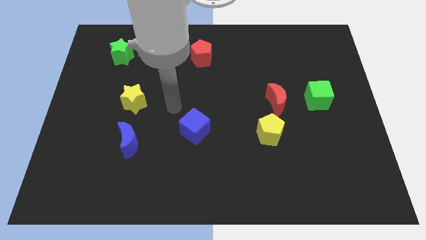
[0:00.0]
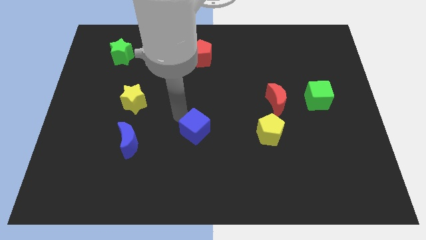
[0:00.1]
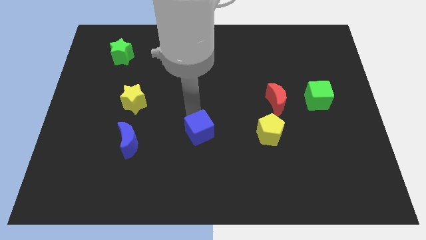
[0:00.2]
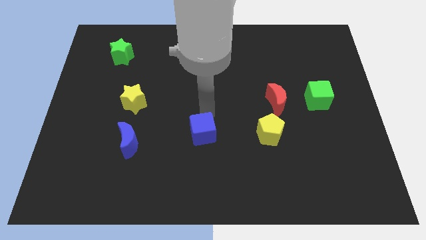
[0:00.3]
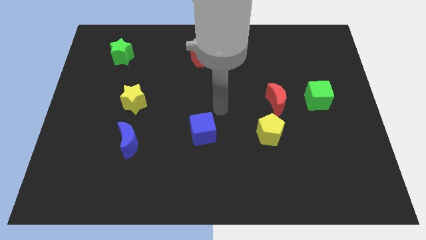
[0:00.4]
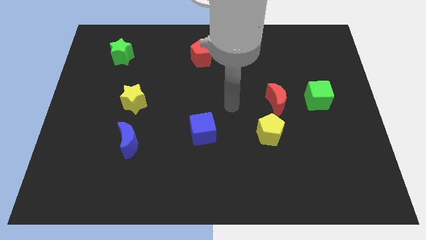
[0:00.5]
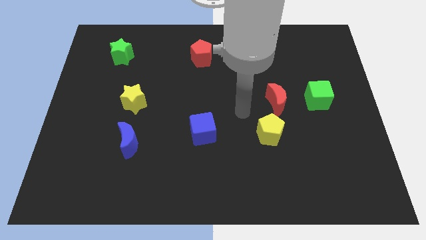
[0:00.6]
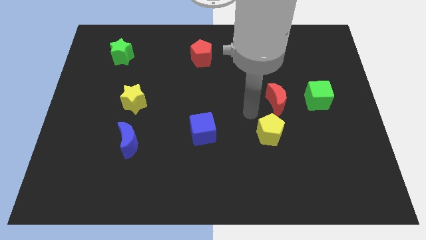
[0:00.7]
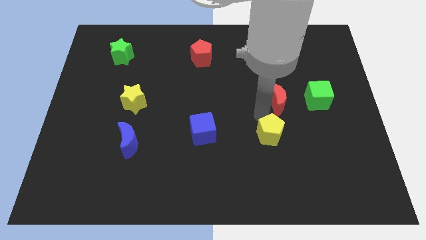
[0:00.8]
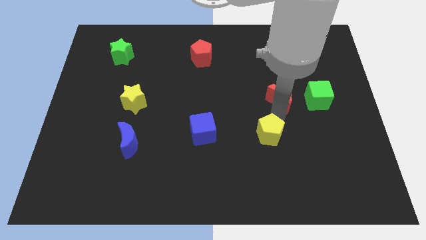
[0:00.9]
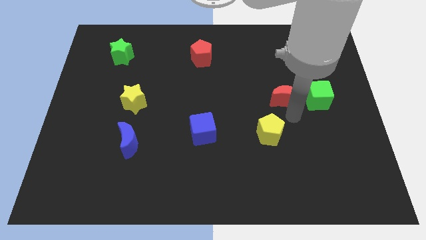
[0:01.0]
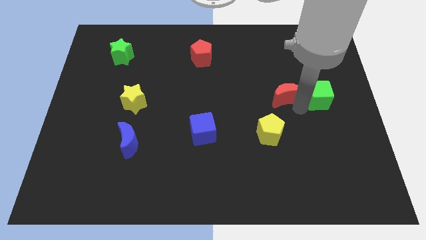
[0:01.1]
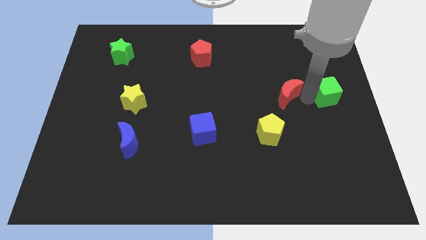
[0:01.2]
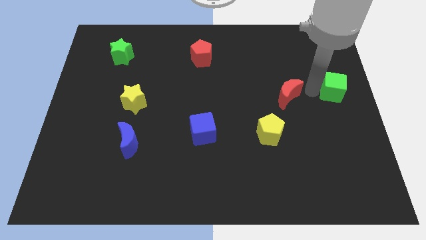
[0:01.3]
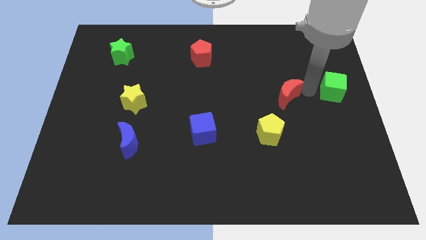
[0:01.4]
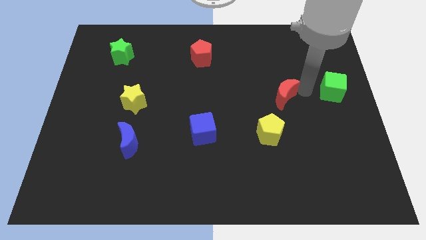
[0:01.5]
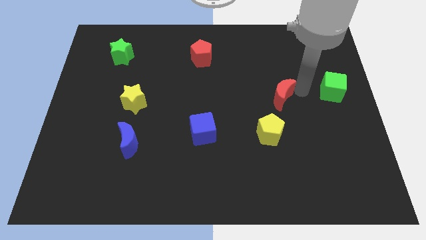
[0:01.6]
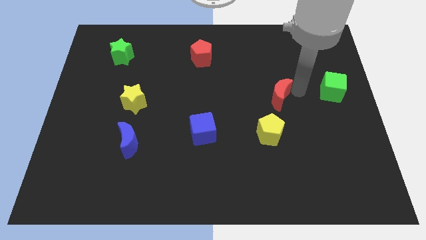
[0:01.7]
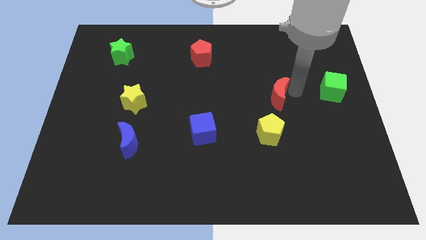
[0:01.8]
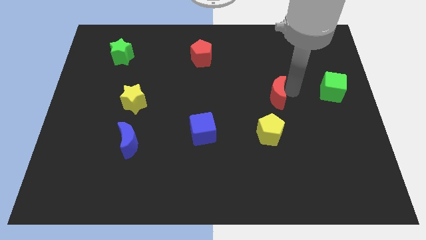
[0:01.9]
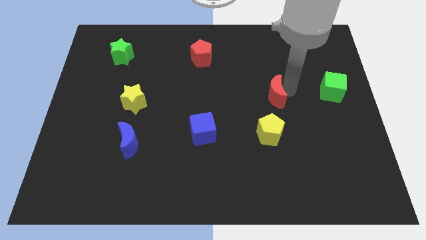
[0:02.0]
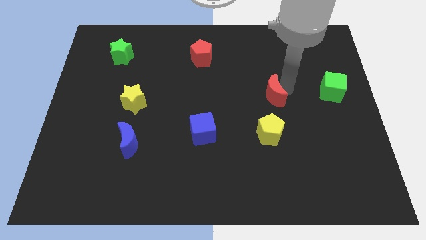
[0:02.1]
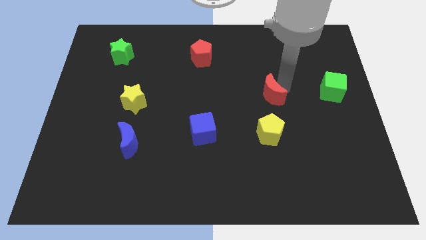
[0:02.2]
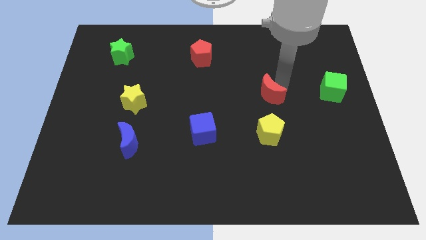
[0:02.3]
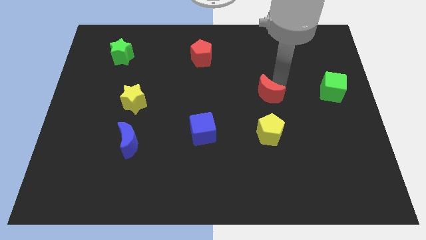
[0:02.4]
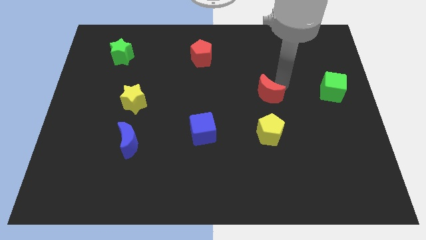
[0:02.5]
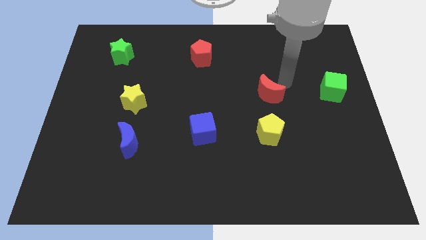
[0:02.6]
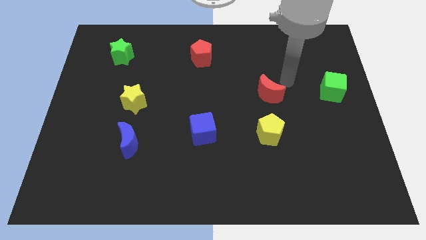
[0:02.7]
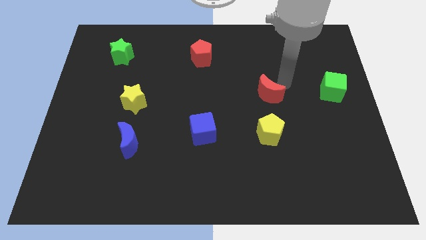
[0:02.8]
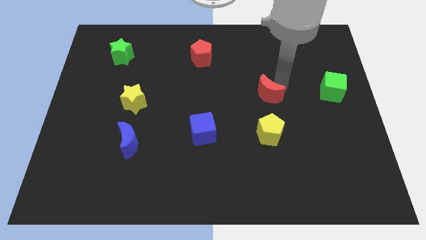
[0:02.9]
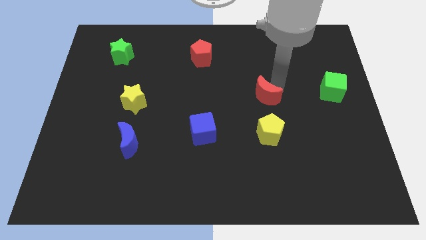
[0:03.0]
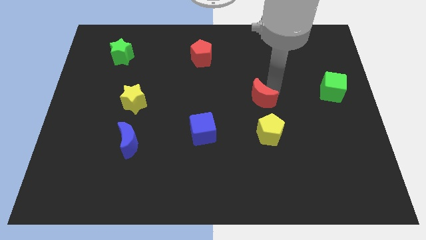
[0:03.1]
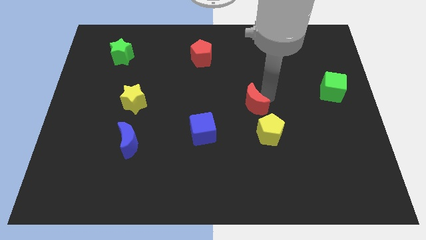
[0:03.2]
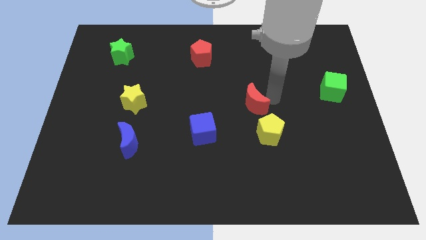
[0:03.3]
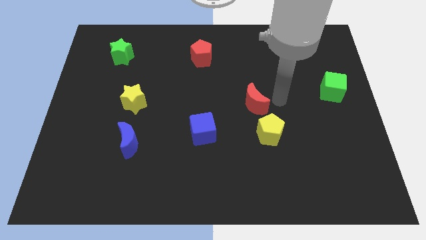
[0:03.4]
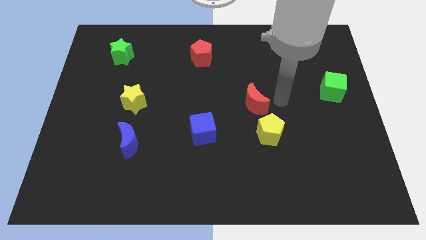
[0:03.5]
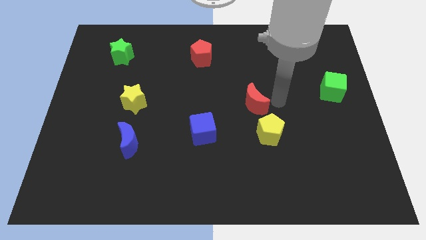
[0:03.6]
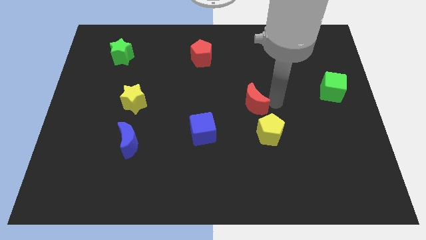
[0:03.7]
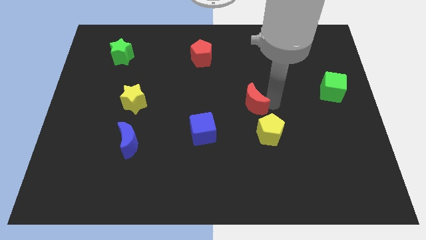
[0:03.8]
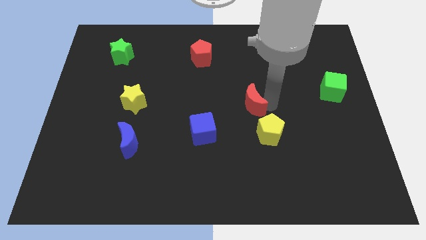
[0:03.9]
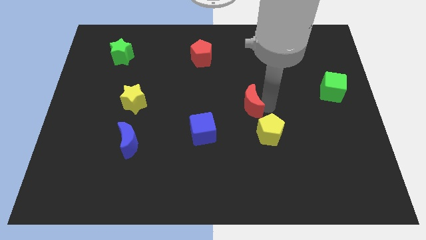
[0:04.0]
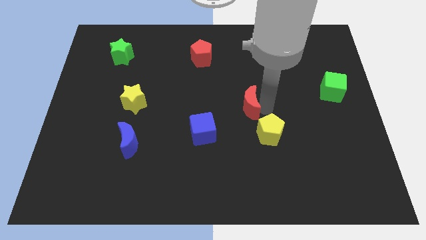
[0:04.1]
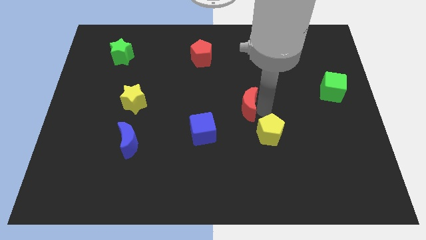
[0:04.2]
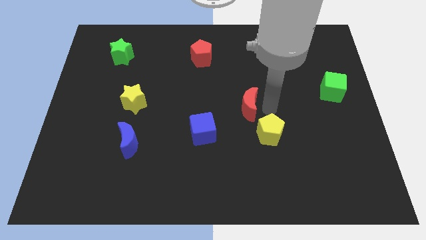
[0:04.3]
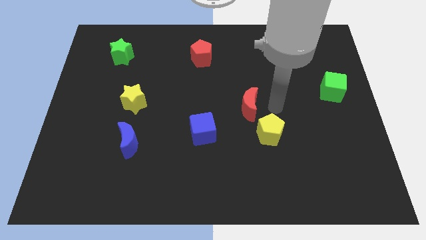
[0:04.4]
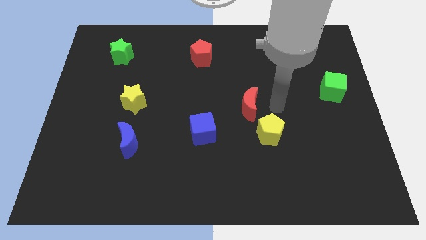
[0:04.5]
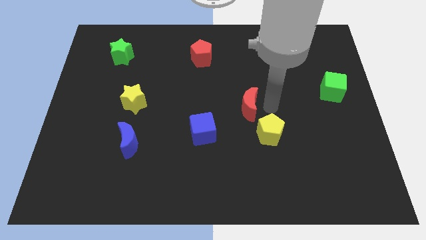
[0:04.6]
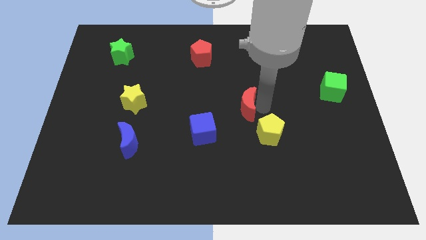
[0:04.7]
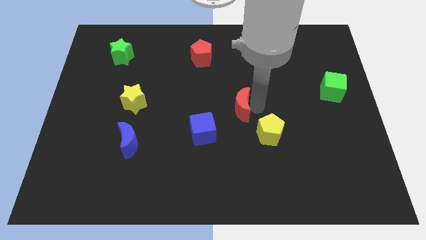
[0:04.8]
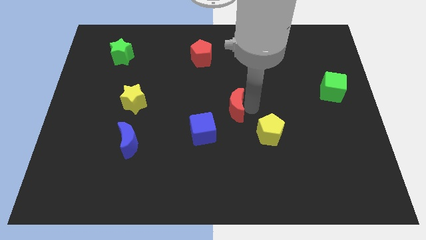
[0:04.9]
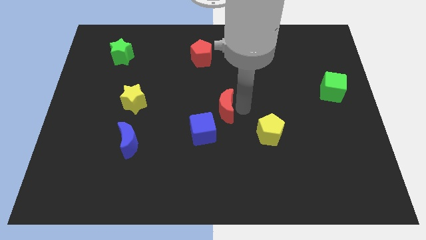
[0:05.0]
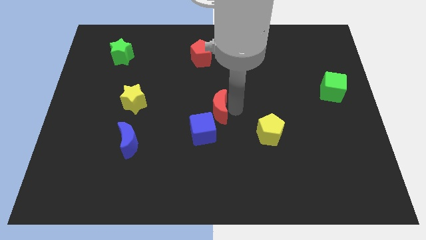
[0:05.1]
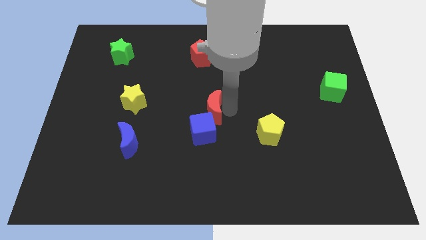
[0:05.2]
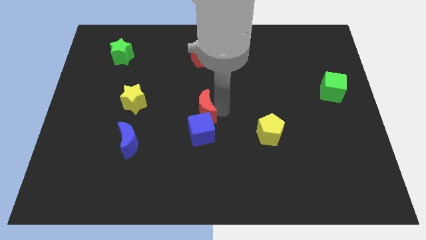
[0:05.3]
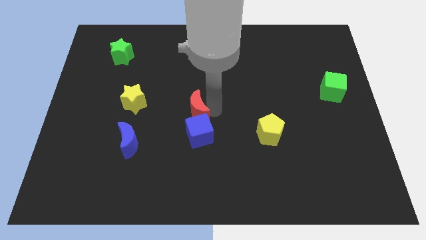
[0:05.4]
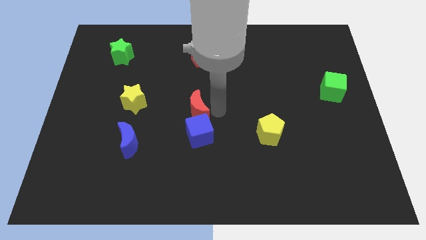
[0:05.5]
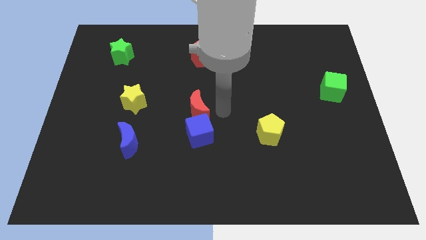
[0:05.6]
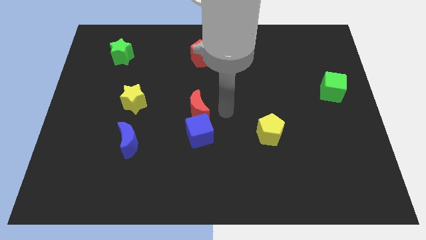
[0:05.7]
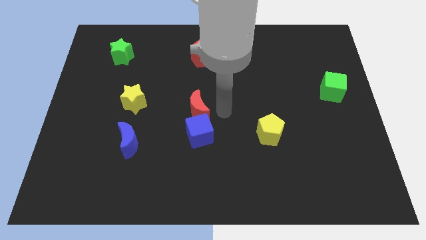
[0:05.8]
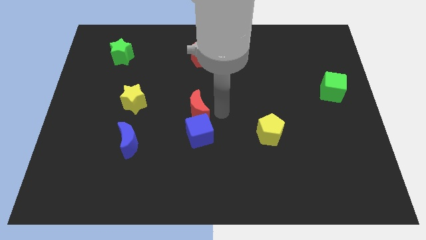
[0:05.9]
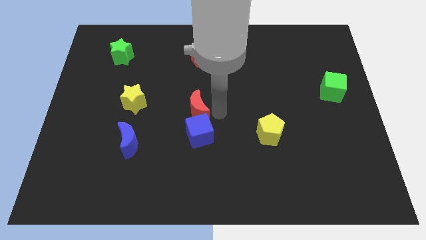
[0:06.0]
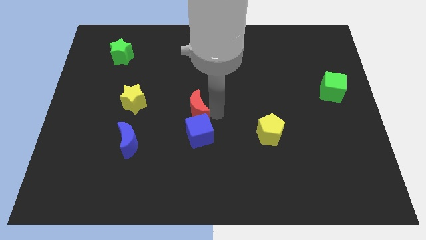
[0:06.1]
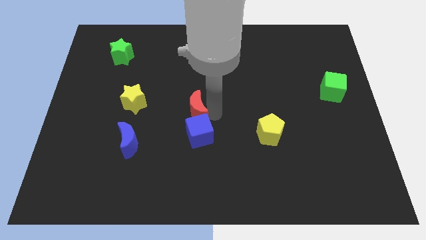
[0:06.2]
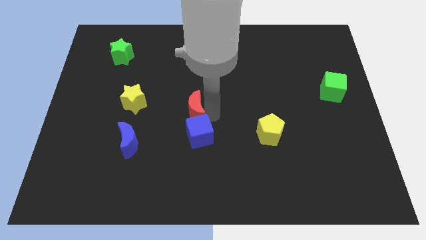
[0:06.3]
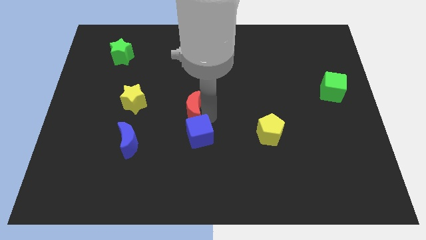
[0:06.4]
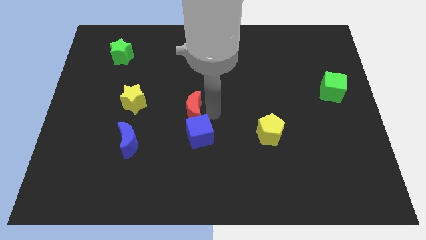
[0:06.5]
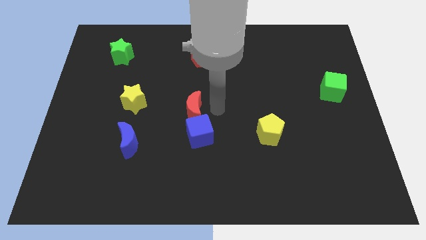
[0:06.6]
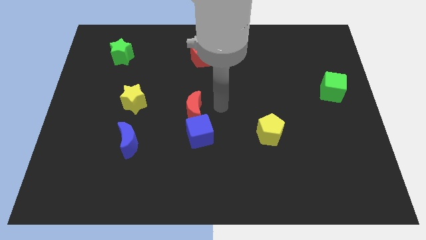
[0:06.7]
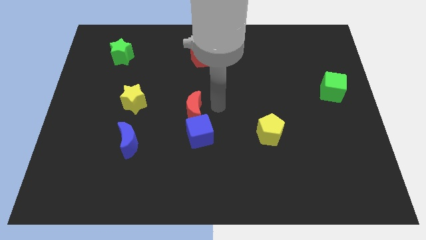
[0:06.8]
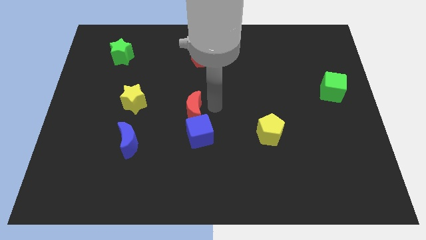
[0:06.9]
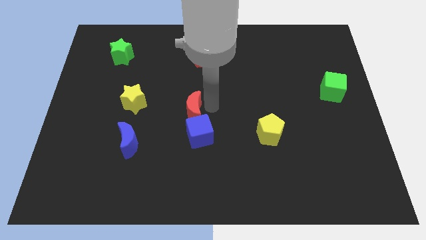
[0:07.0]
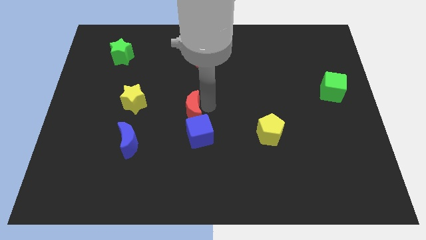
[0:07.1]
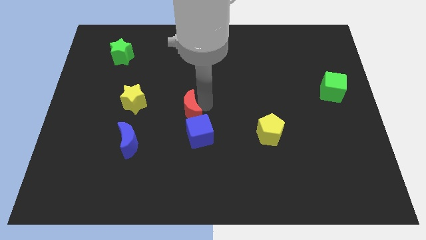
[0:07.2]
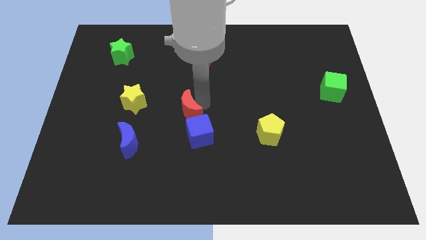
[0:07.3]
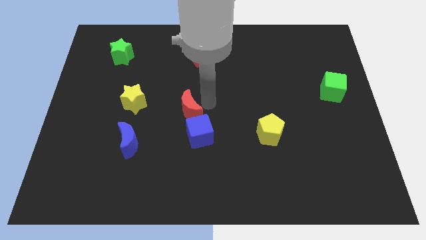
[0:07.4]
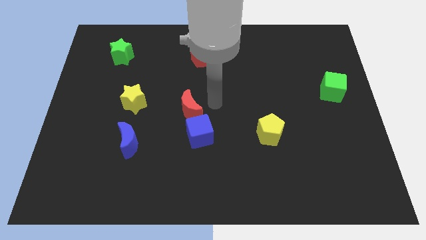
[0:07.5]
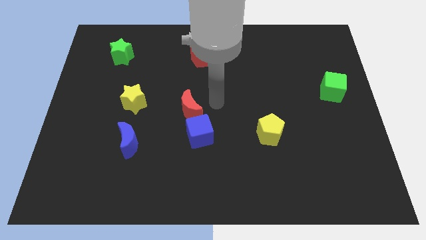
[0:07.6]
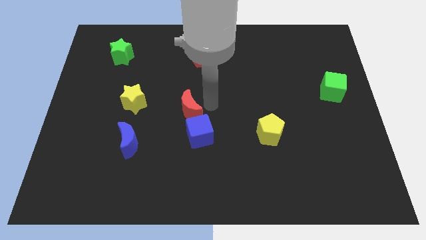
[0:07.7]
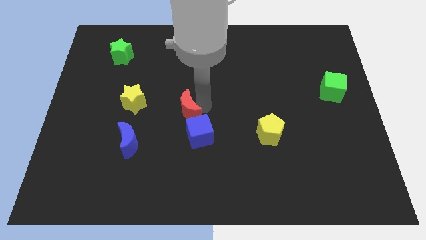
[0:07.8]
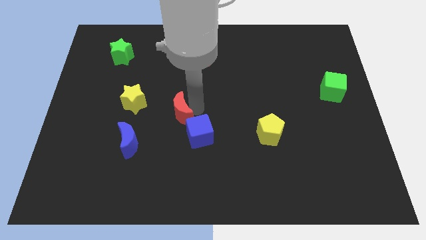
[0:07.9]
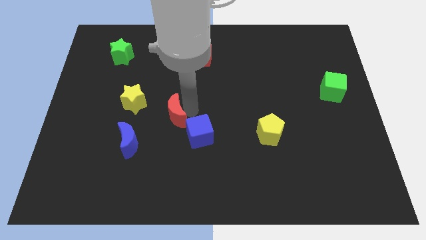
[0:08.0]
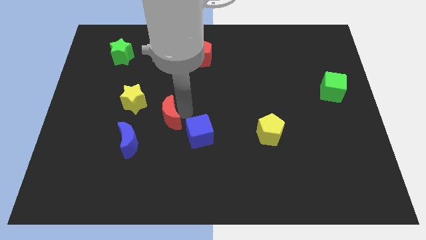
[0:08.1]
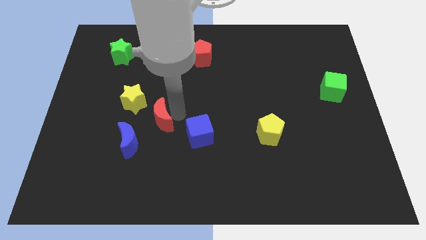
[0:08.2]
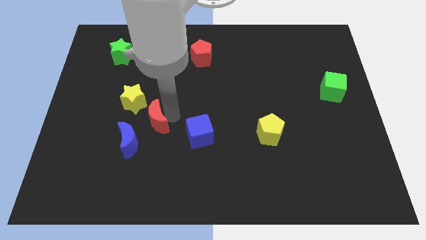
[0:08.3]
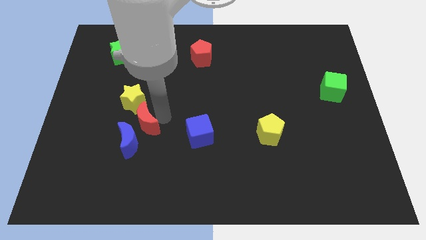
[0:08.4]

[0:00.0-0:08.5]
slide the red moon towards the blue moon
